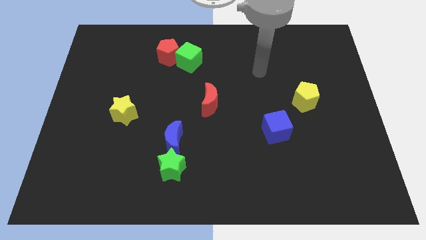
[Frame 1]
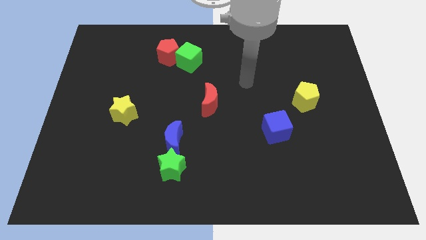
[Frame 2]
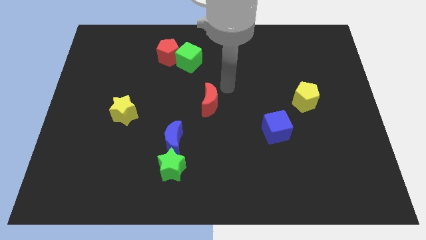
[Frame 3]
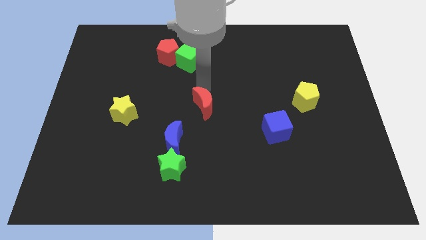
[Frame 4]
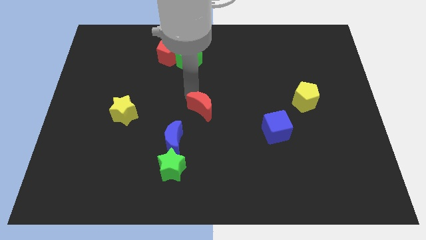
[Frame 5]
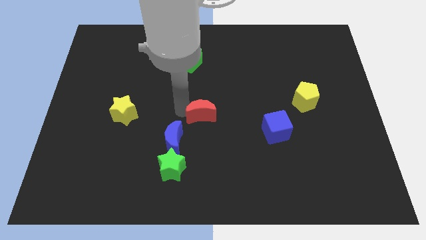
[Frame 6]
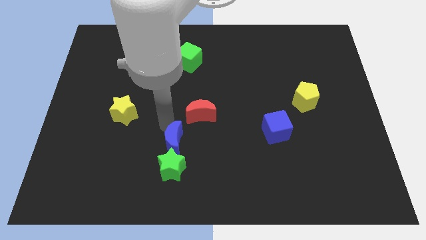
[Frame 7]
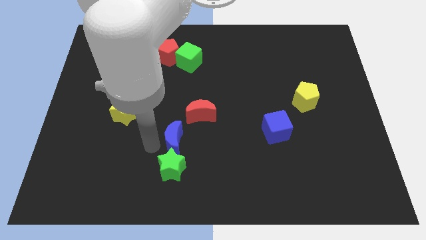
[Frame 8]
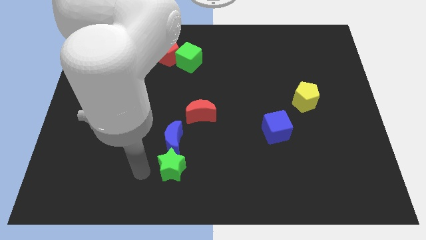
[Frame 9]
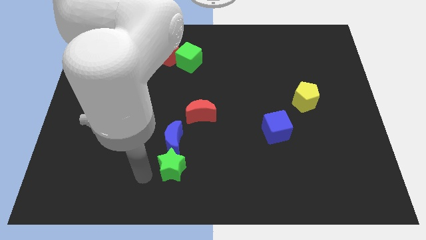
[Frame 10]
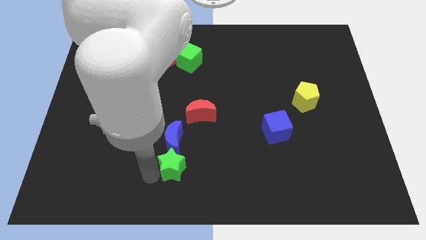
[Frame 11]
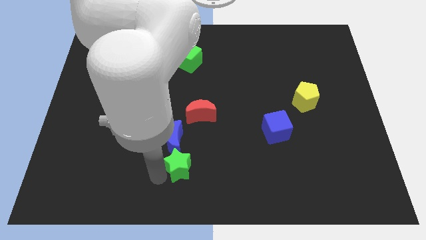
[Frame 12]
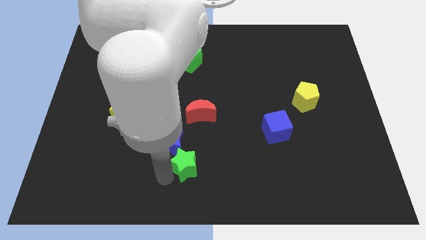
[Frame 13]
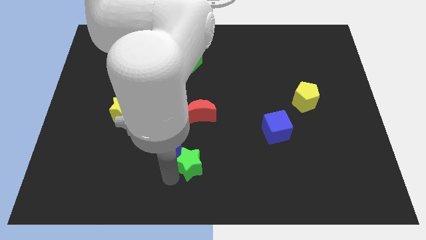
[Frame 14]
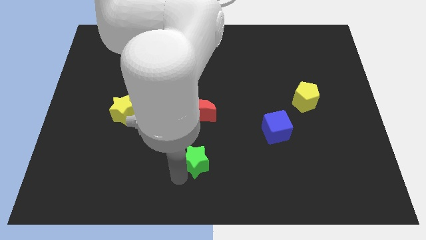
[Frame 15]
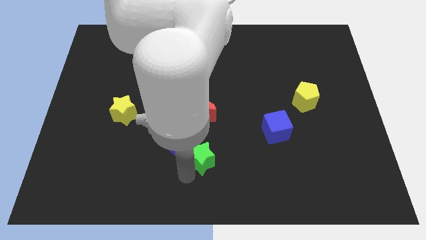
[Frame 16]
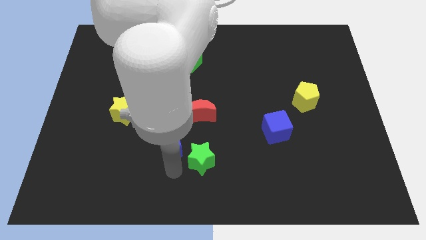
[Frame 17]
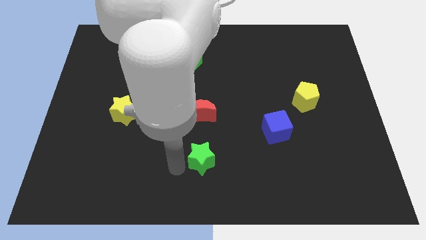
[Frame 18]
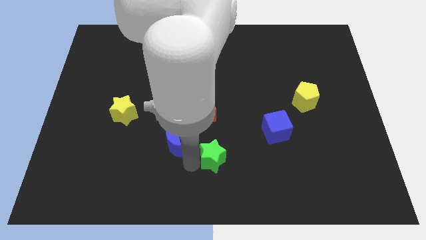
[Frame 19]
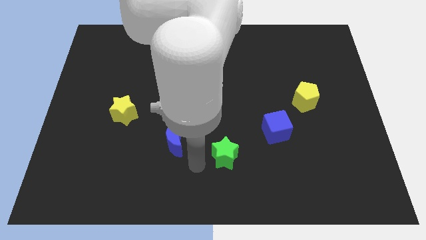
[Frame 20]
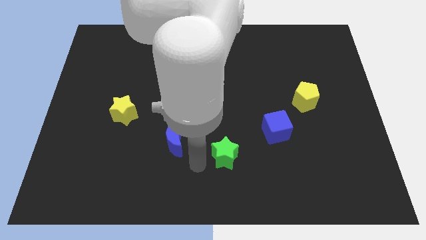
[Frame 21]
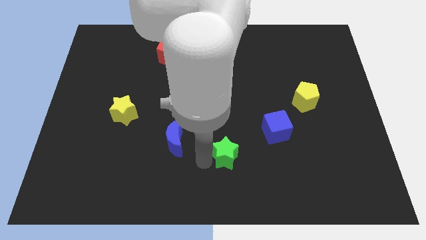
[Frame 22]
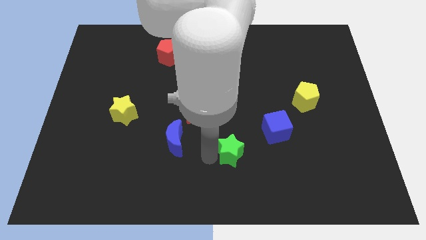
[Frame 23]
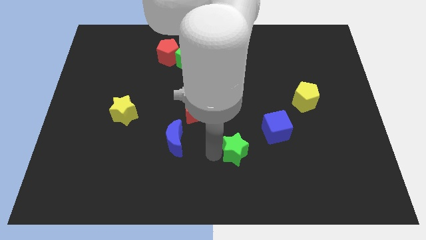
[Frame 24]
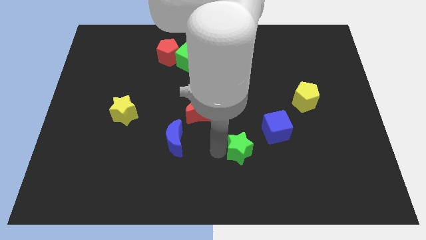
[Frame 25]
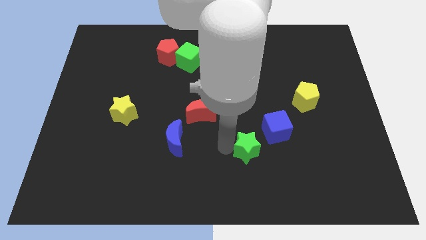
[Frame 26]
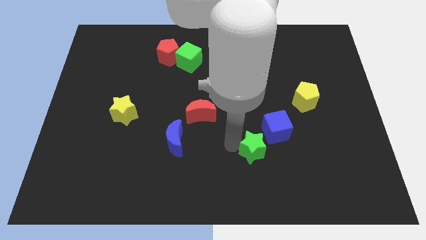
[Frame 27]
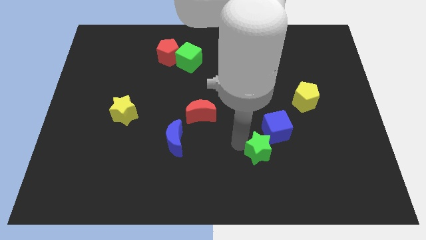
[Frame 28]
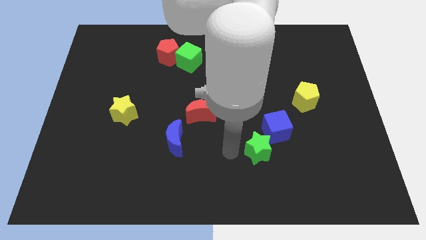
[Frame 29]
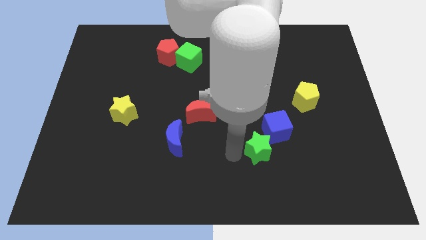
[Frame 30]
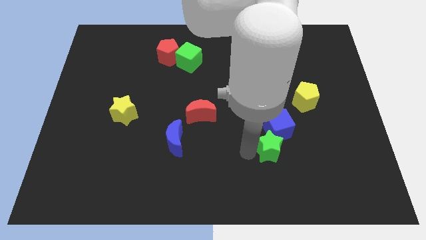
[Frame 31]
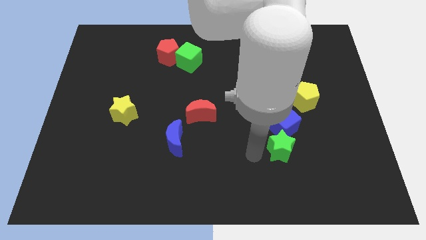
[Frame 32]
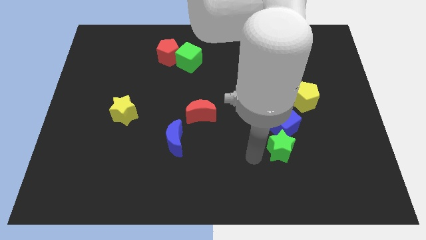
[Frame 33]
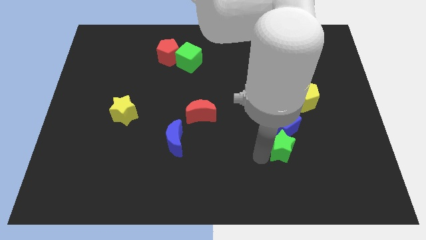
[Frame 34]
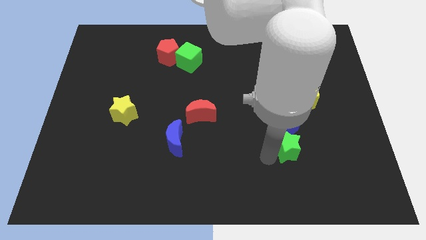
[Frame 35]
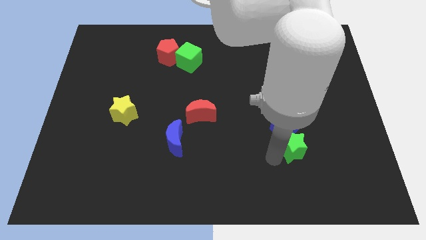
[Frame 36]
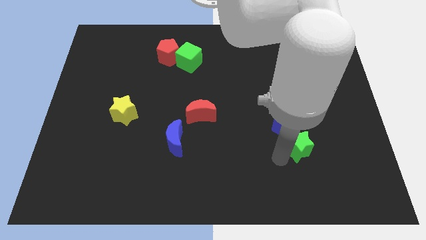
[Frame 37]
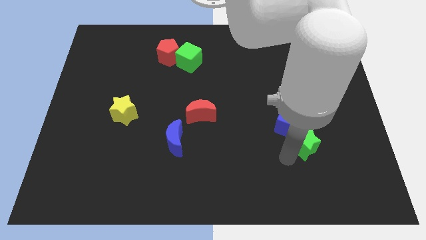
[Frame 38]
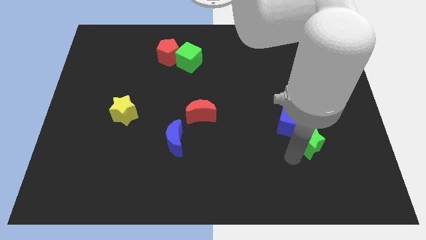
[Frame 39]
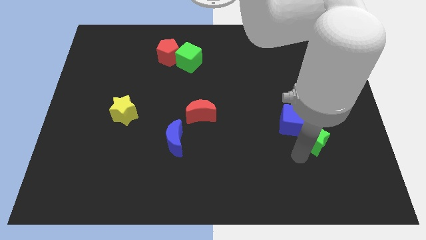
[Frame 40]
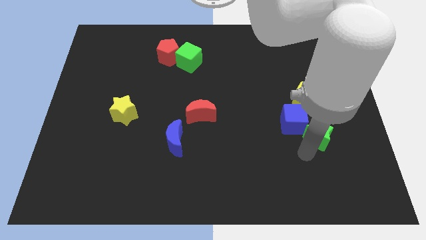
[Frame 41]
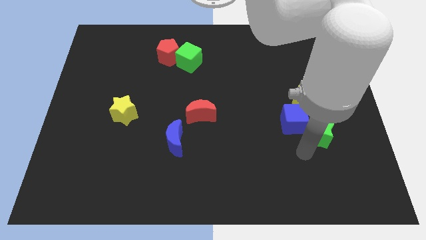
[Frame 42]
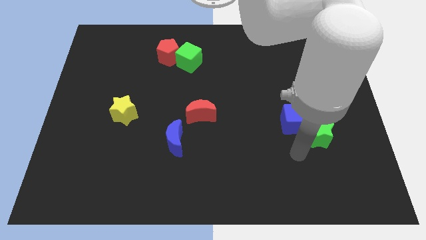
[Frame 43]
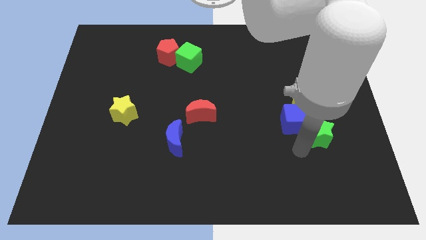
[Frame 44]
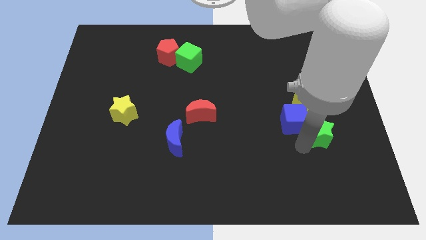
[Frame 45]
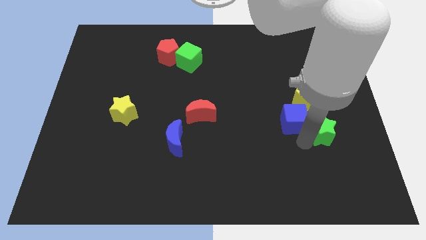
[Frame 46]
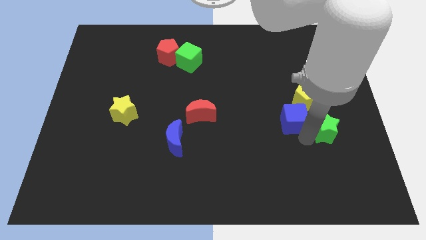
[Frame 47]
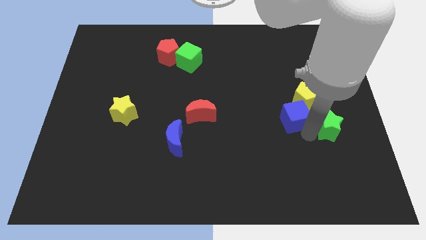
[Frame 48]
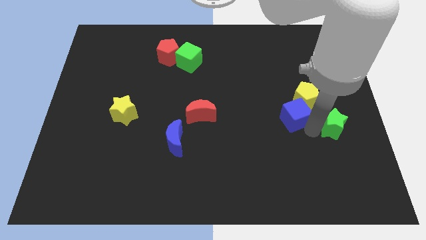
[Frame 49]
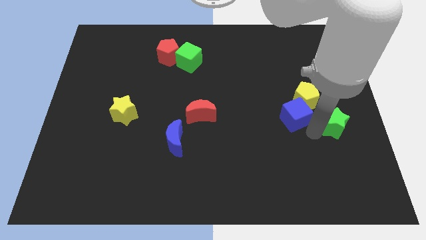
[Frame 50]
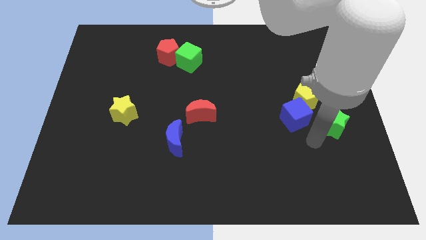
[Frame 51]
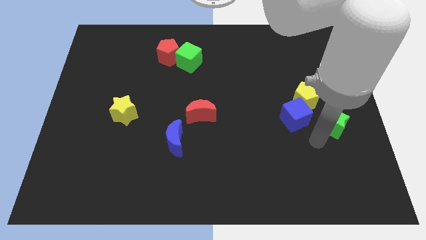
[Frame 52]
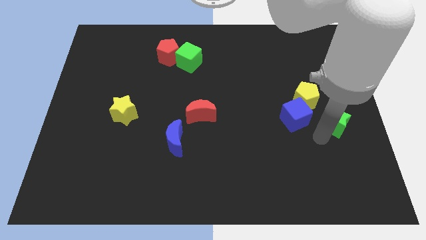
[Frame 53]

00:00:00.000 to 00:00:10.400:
move the green star to the center right
